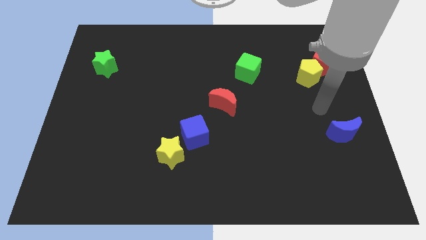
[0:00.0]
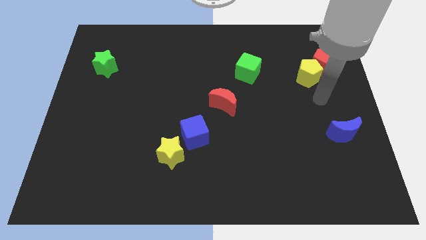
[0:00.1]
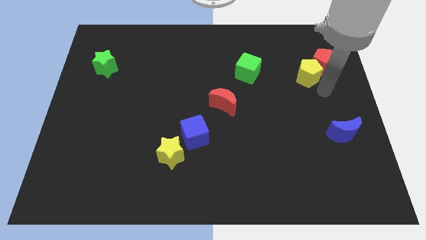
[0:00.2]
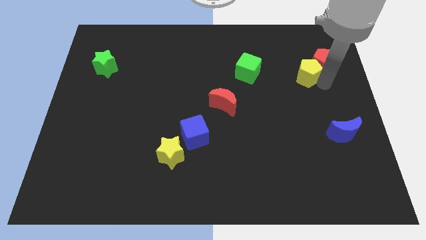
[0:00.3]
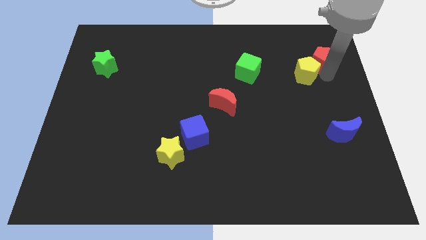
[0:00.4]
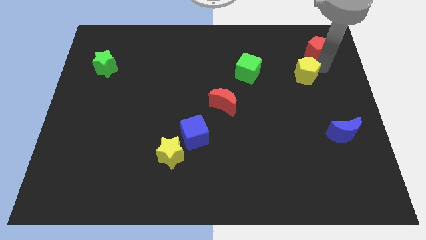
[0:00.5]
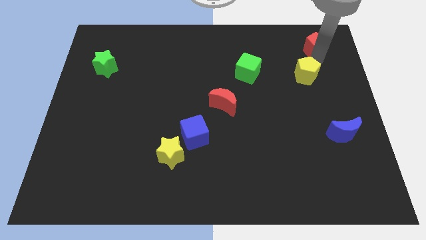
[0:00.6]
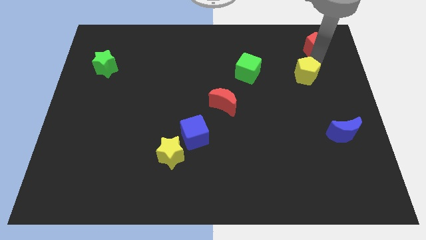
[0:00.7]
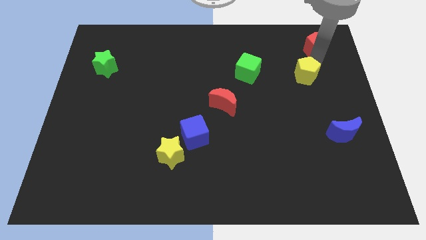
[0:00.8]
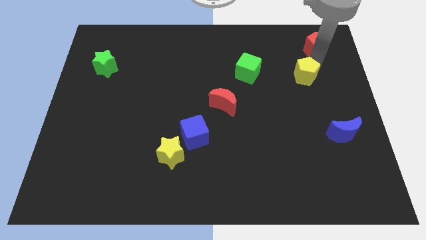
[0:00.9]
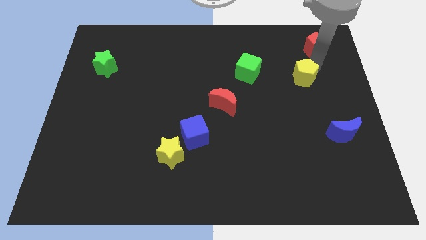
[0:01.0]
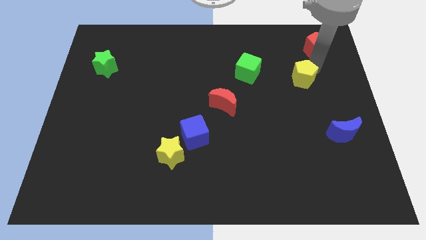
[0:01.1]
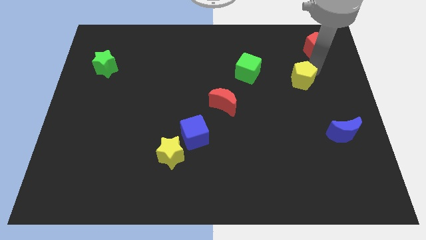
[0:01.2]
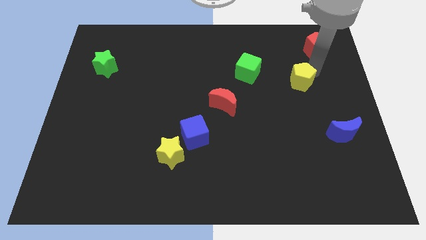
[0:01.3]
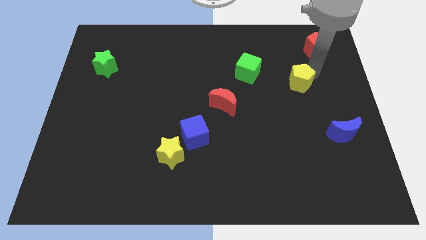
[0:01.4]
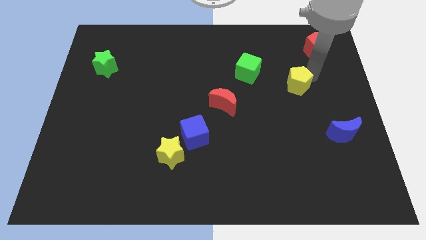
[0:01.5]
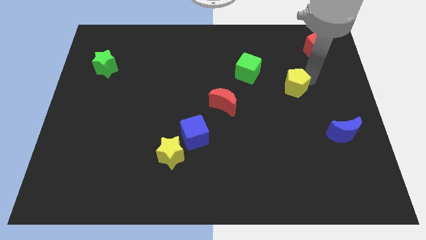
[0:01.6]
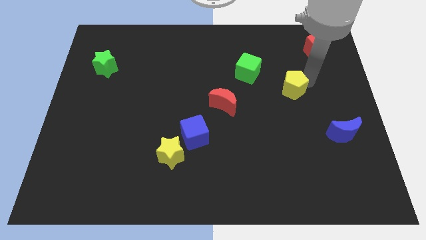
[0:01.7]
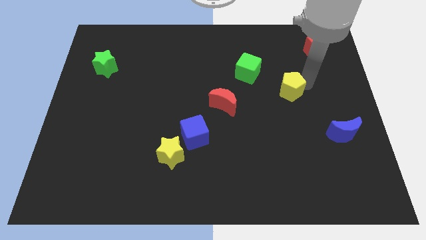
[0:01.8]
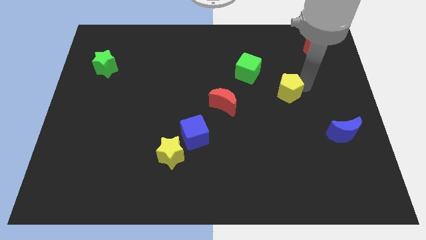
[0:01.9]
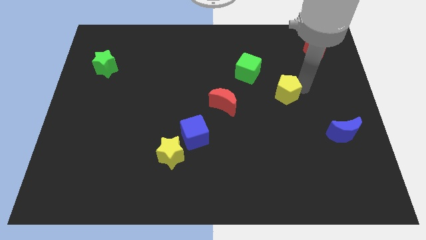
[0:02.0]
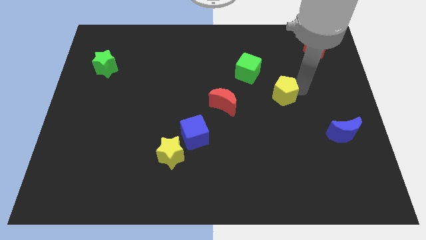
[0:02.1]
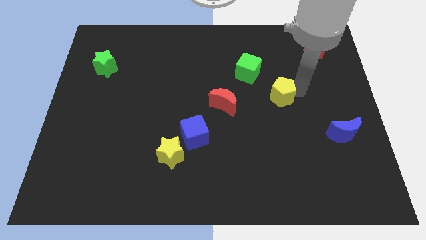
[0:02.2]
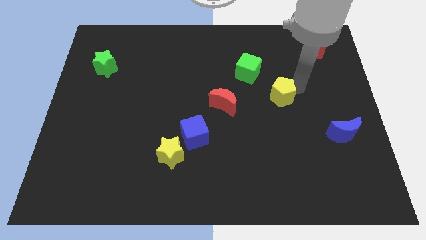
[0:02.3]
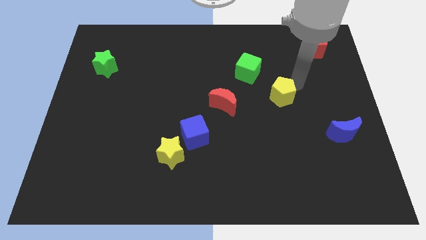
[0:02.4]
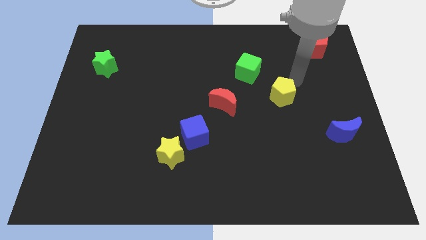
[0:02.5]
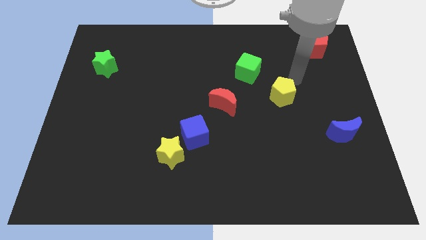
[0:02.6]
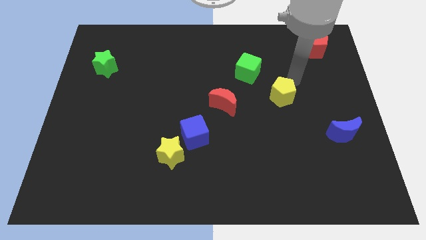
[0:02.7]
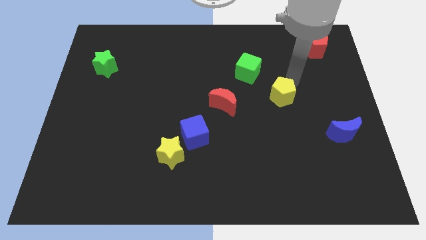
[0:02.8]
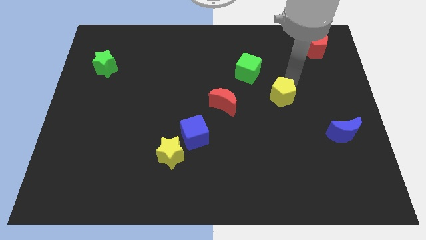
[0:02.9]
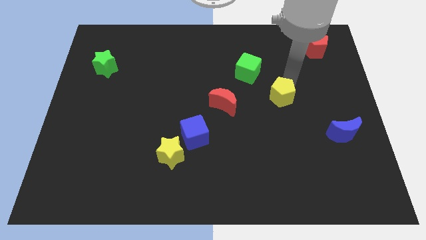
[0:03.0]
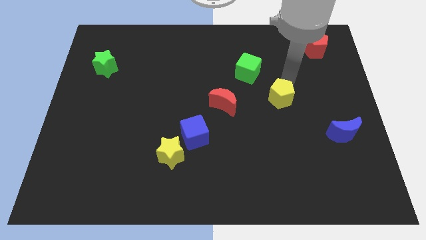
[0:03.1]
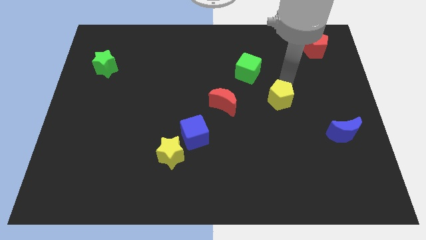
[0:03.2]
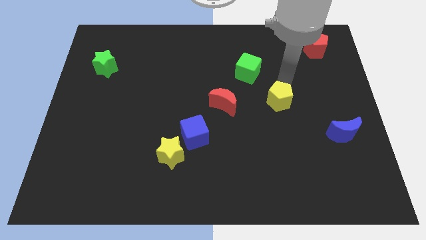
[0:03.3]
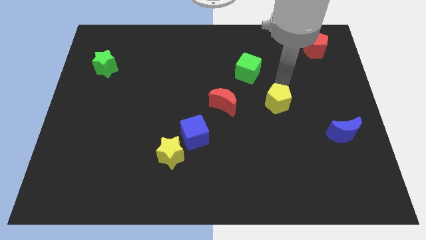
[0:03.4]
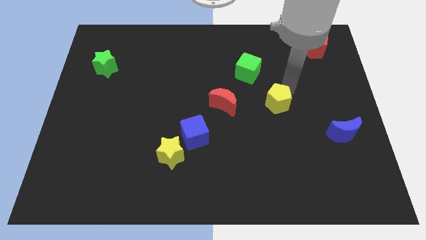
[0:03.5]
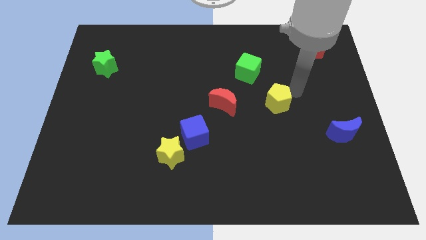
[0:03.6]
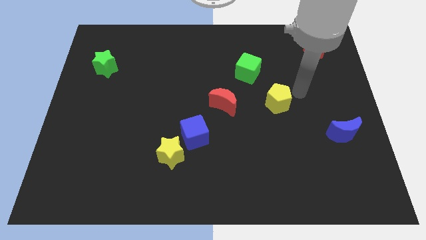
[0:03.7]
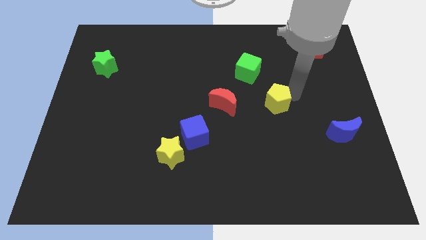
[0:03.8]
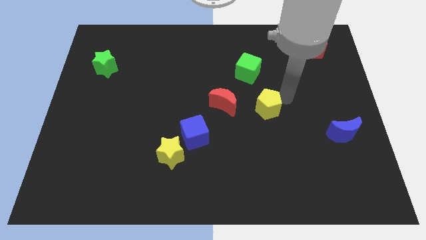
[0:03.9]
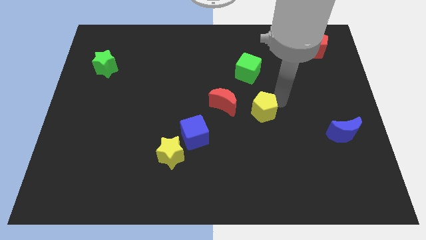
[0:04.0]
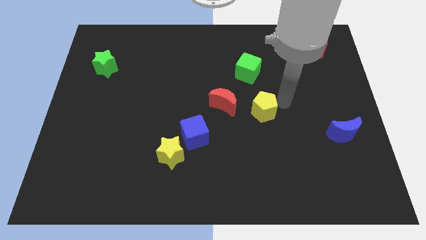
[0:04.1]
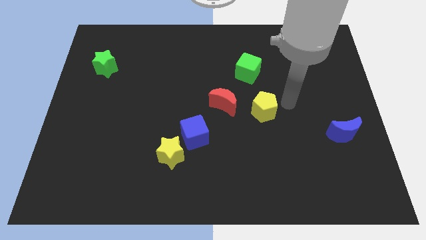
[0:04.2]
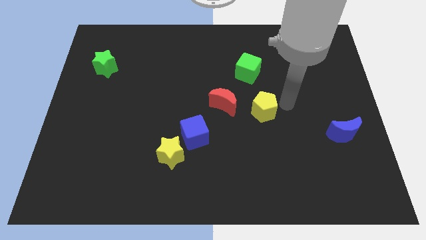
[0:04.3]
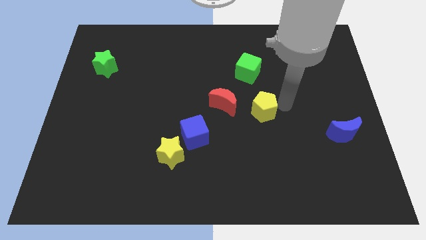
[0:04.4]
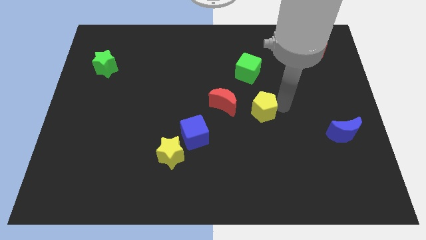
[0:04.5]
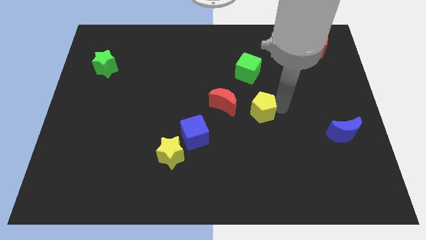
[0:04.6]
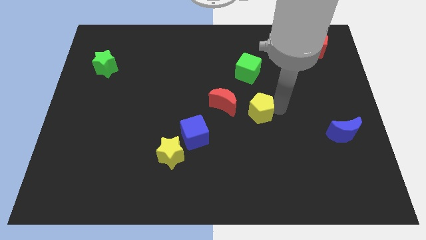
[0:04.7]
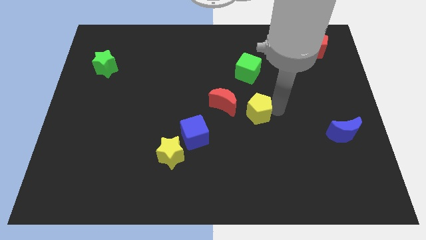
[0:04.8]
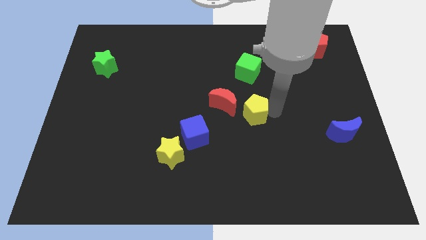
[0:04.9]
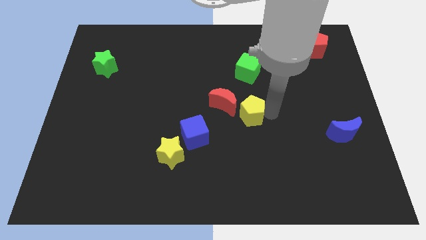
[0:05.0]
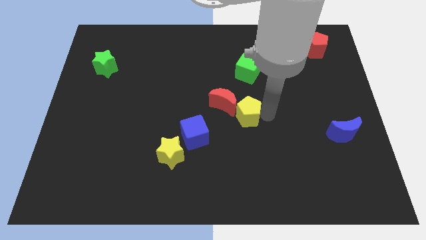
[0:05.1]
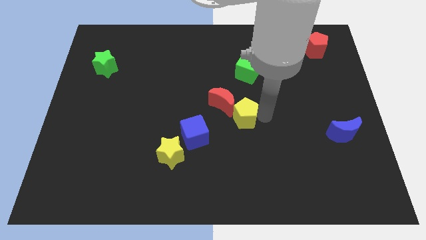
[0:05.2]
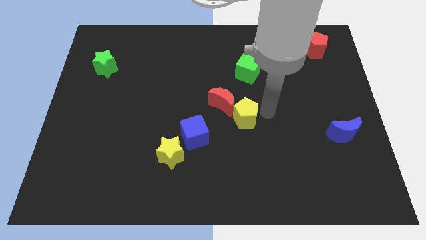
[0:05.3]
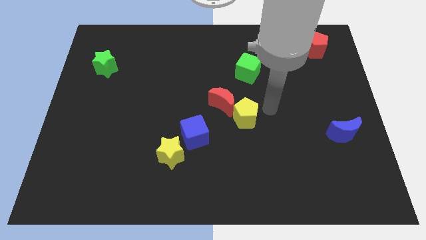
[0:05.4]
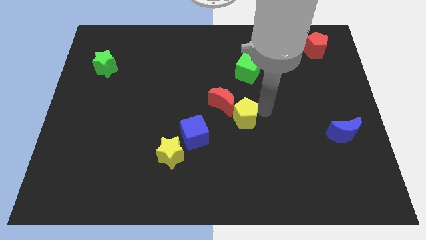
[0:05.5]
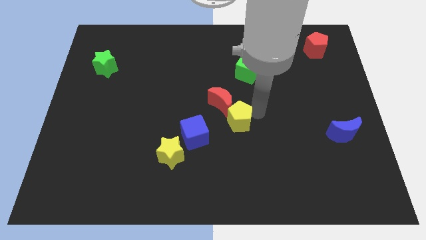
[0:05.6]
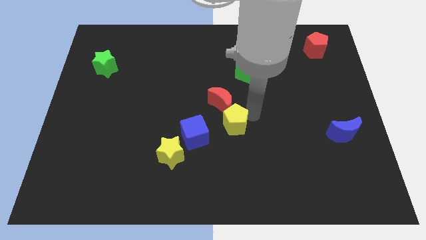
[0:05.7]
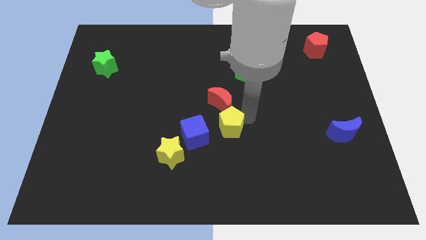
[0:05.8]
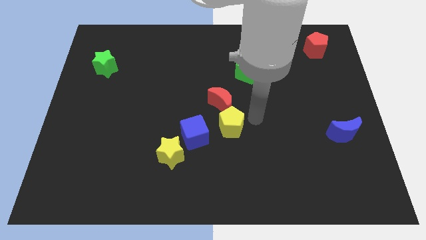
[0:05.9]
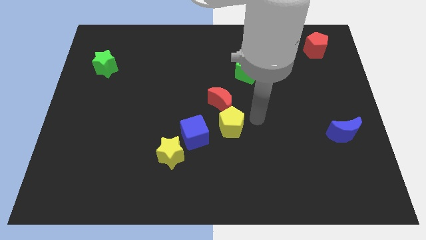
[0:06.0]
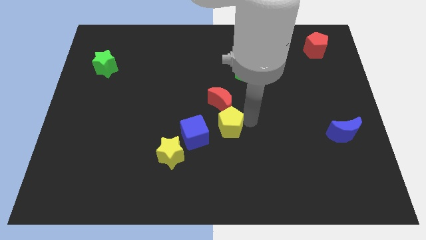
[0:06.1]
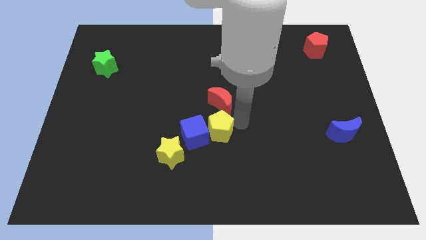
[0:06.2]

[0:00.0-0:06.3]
move the yellow pentagon towards the blue cube
